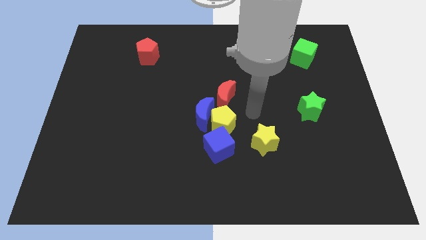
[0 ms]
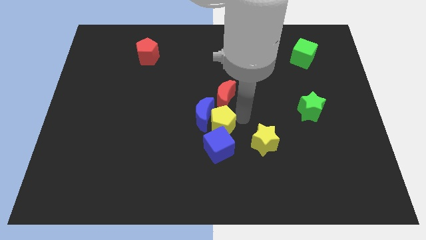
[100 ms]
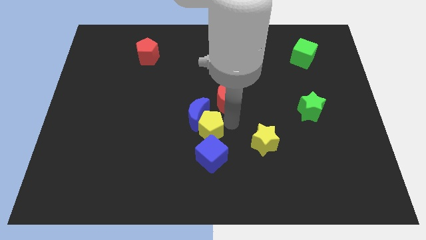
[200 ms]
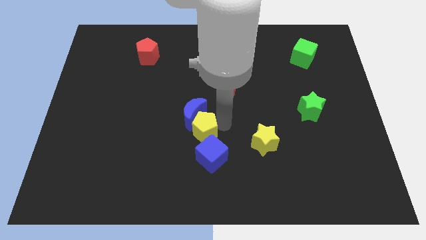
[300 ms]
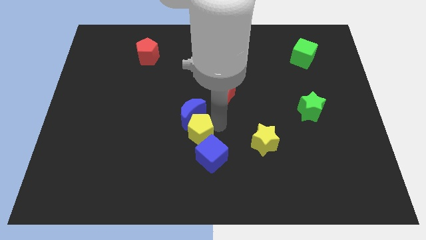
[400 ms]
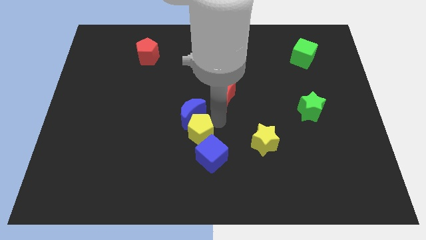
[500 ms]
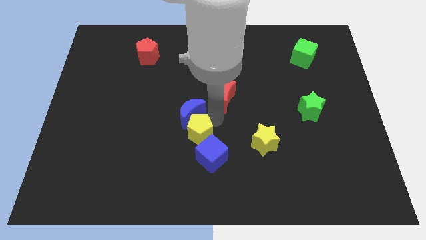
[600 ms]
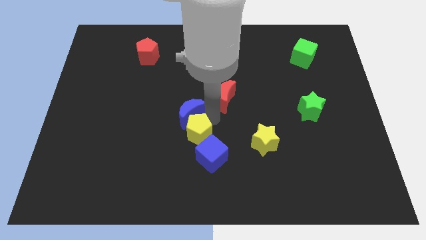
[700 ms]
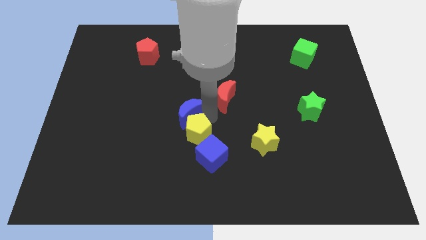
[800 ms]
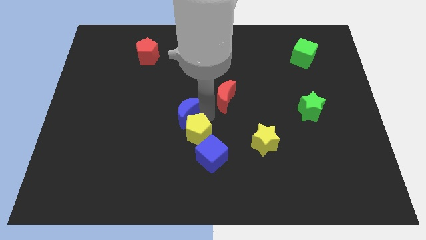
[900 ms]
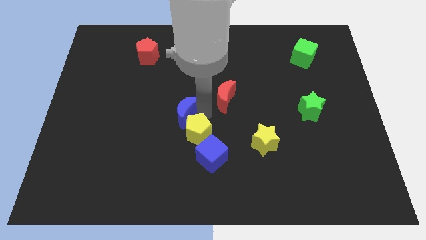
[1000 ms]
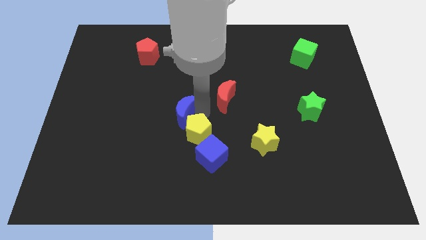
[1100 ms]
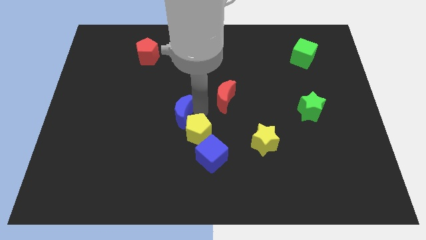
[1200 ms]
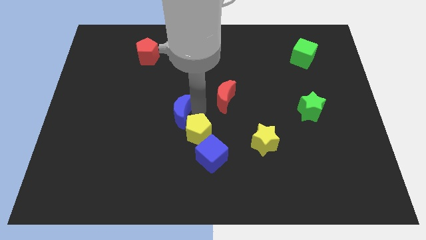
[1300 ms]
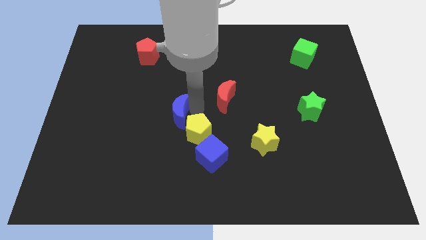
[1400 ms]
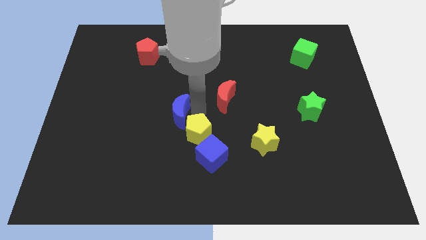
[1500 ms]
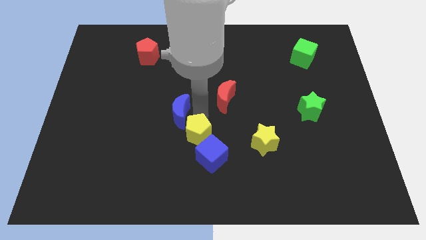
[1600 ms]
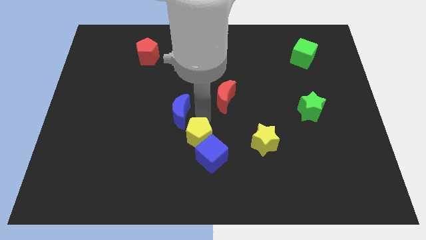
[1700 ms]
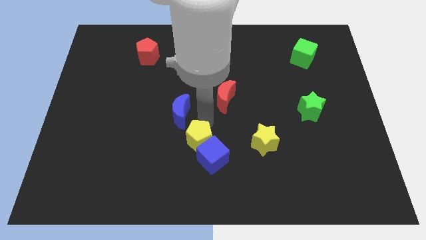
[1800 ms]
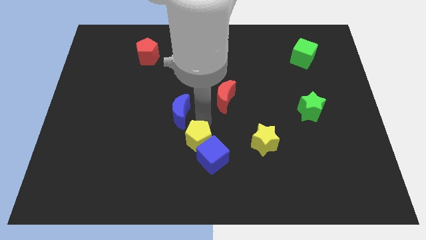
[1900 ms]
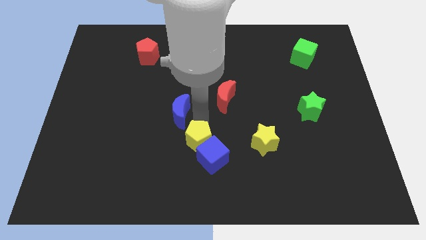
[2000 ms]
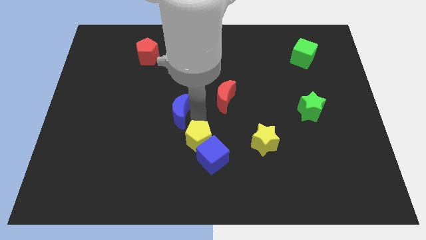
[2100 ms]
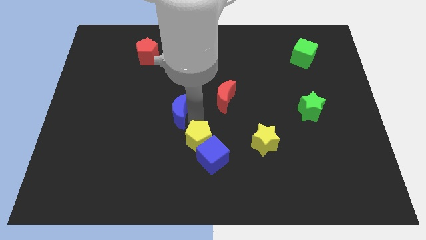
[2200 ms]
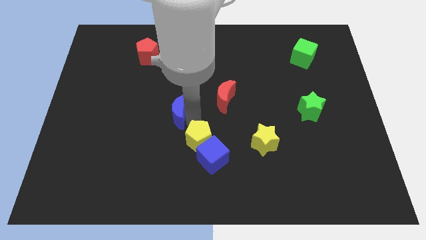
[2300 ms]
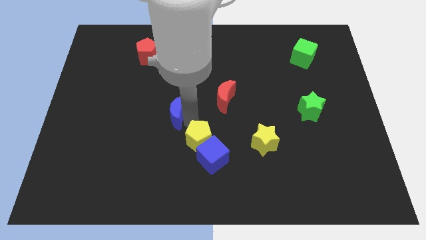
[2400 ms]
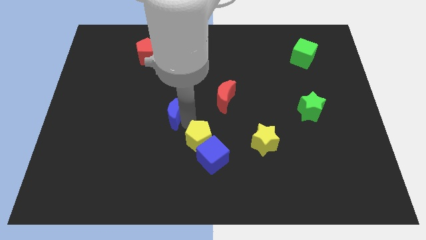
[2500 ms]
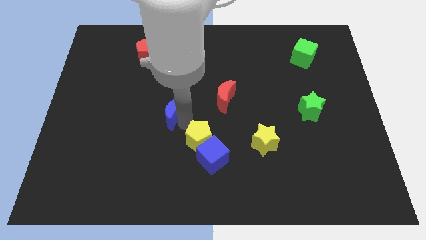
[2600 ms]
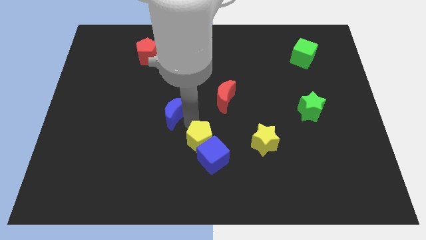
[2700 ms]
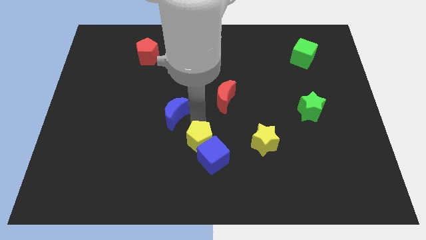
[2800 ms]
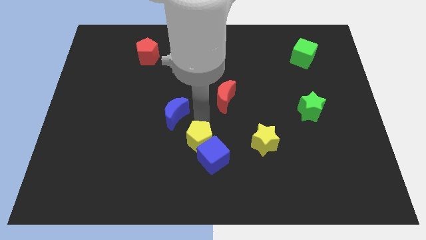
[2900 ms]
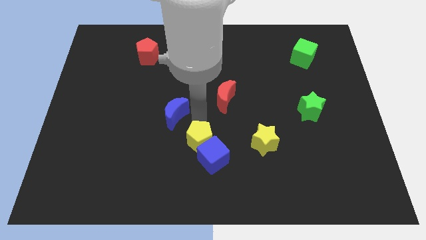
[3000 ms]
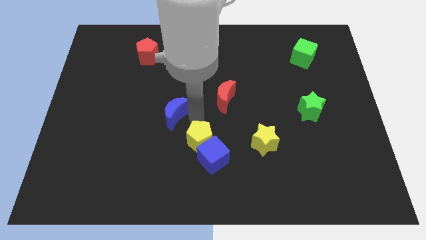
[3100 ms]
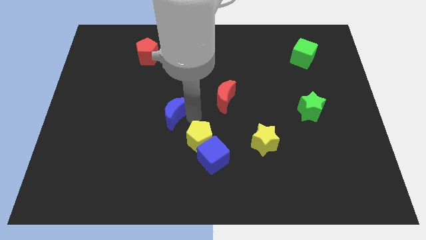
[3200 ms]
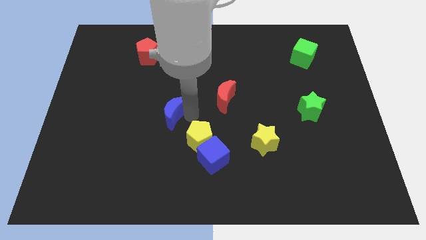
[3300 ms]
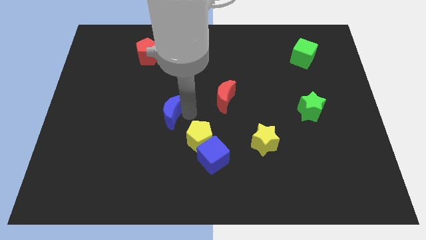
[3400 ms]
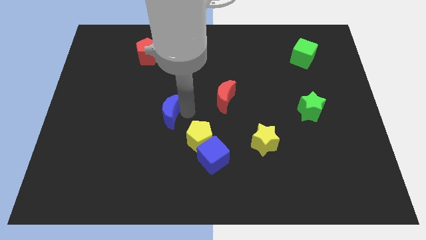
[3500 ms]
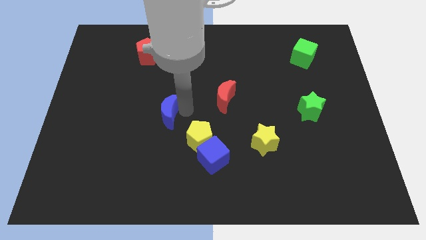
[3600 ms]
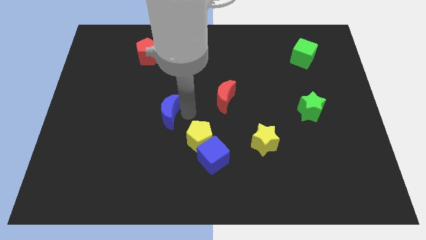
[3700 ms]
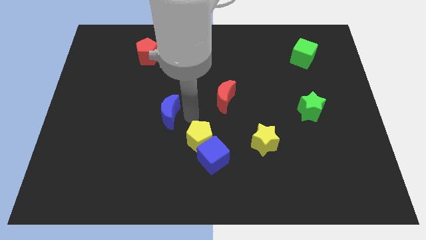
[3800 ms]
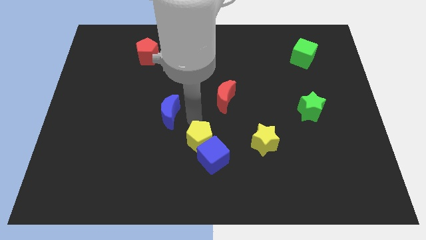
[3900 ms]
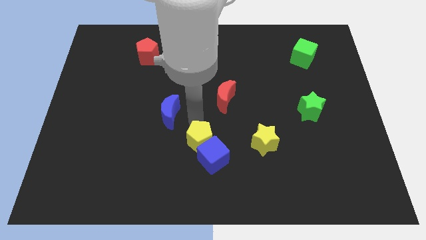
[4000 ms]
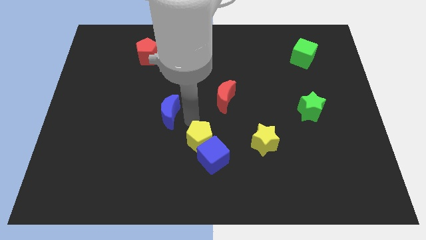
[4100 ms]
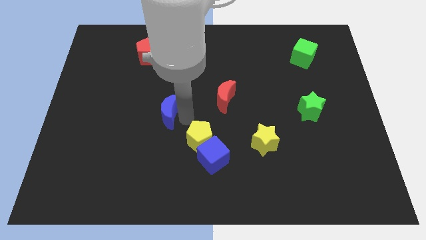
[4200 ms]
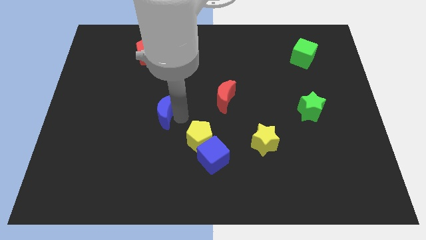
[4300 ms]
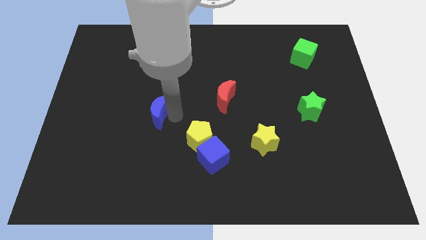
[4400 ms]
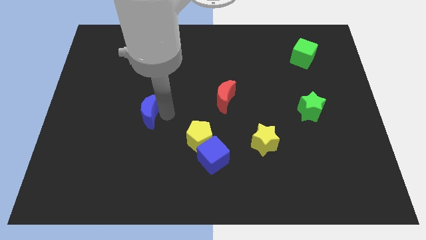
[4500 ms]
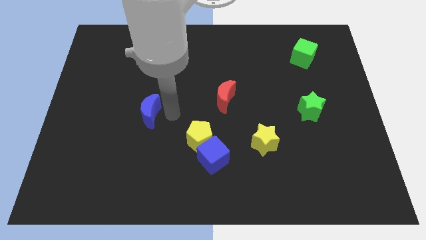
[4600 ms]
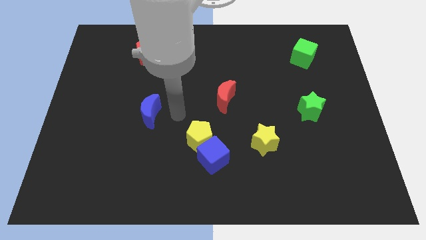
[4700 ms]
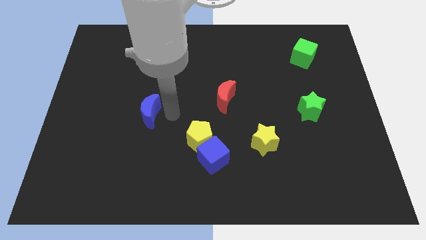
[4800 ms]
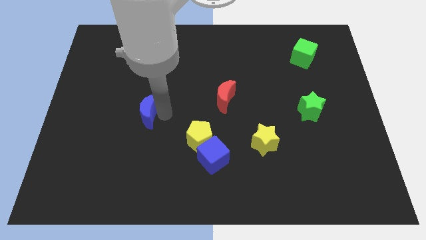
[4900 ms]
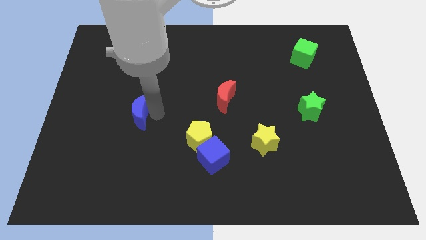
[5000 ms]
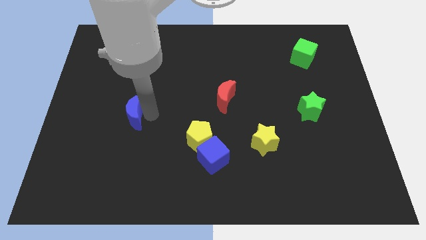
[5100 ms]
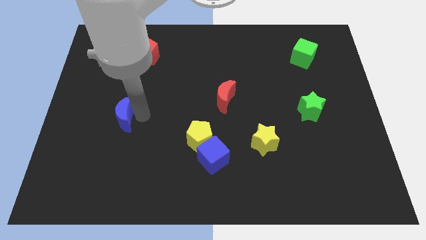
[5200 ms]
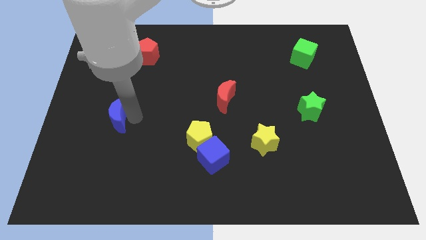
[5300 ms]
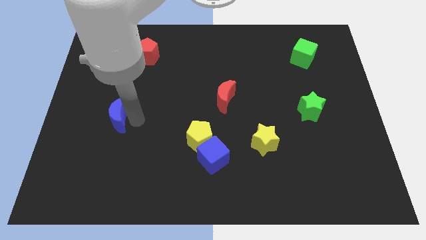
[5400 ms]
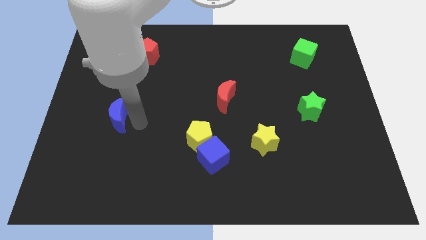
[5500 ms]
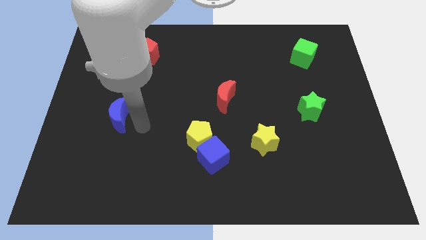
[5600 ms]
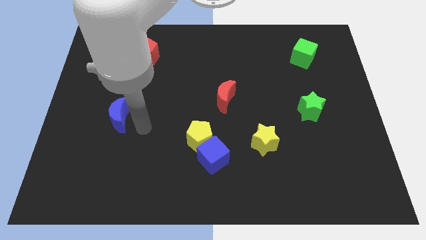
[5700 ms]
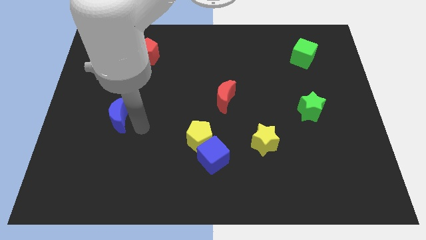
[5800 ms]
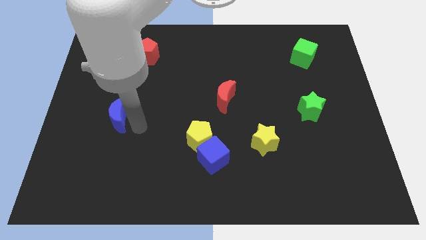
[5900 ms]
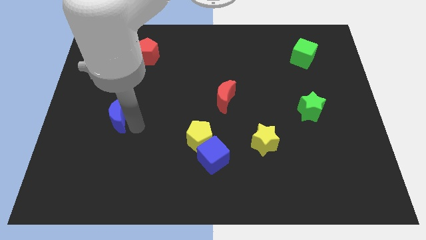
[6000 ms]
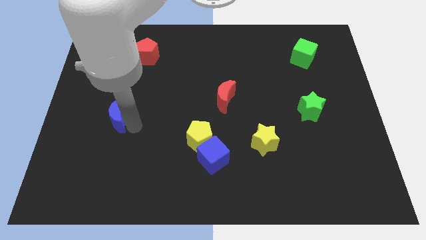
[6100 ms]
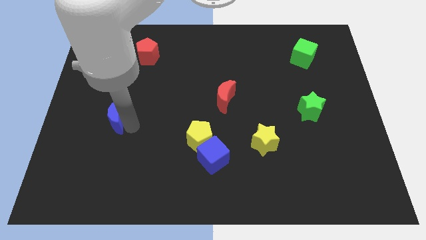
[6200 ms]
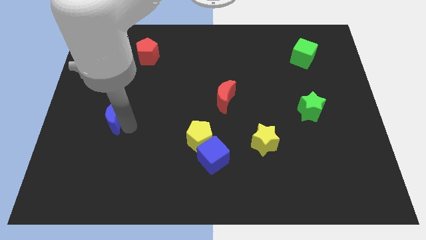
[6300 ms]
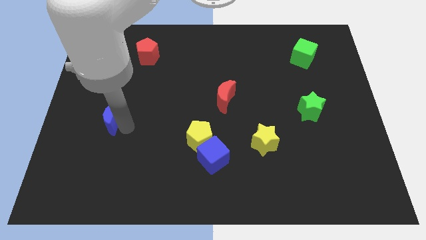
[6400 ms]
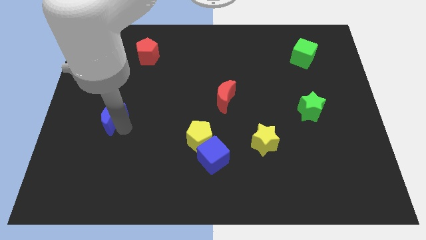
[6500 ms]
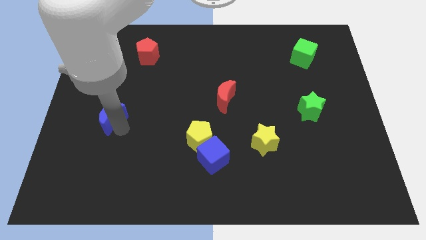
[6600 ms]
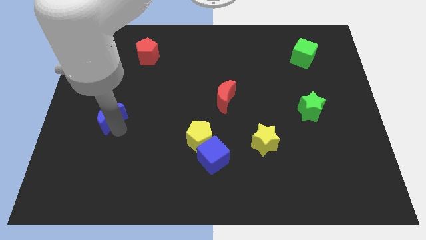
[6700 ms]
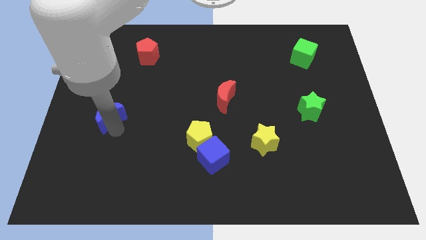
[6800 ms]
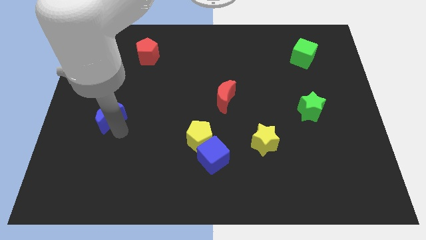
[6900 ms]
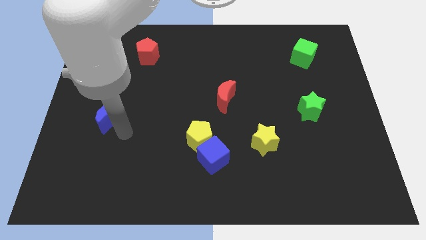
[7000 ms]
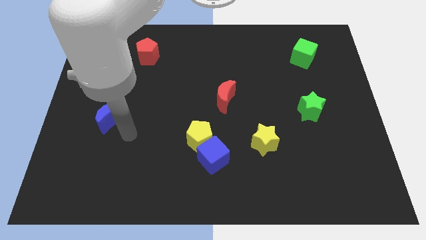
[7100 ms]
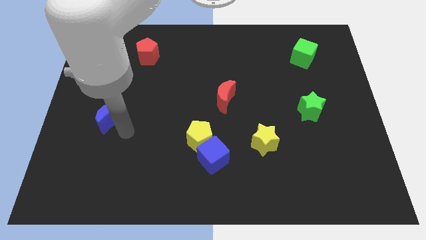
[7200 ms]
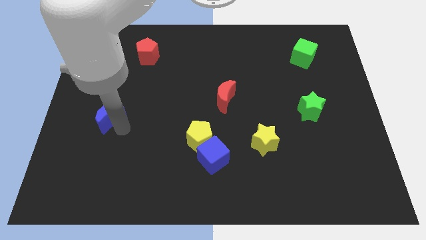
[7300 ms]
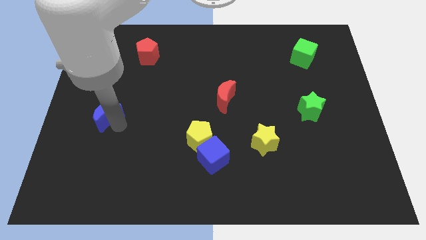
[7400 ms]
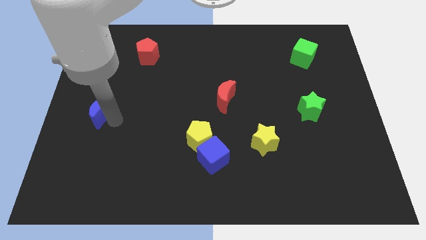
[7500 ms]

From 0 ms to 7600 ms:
move the blue moon to the left side of the board
